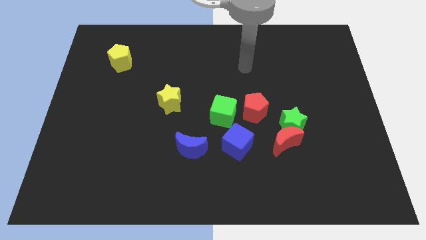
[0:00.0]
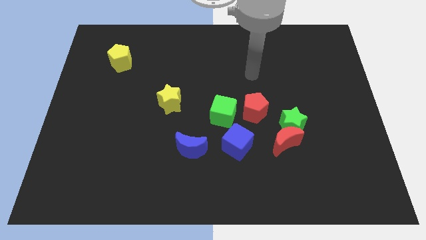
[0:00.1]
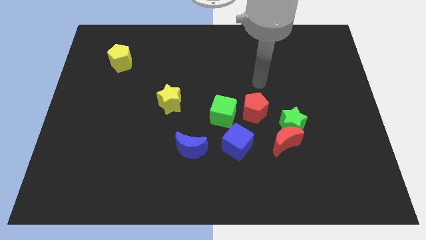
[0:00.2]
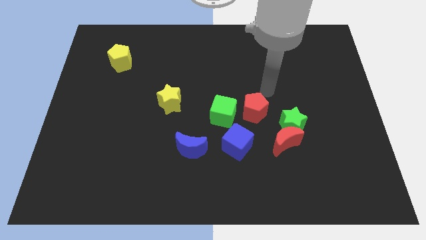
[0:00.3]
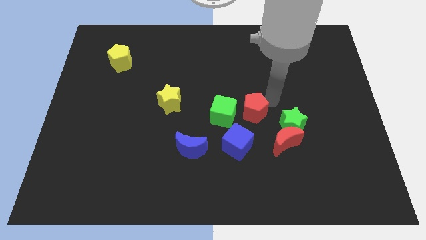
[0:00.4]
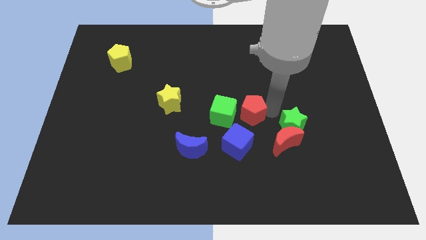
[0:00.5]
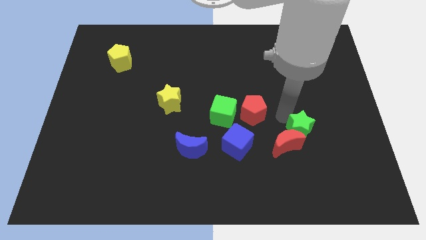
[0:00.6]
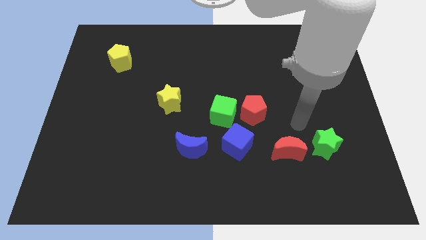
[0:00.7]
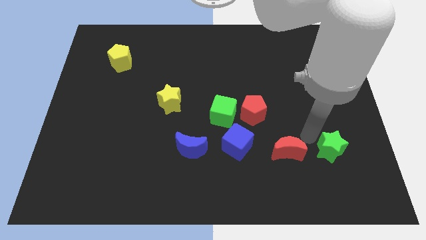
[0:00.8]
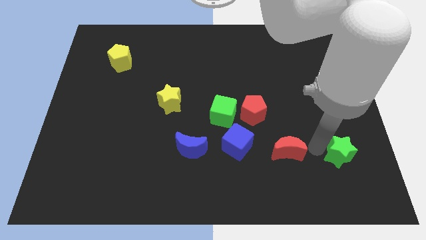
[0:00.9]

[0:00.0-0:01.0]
pull the red moon apart from the green star

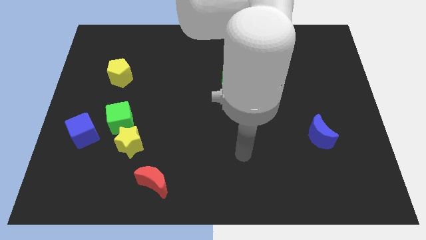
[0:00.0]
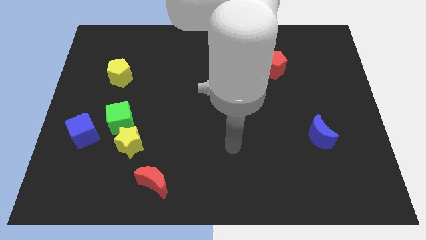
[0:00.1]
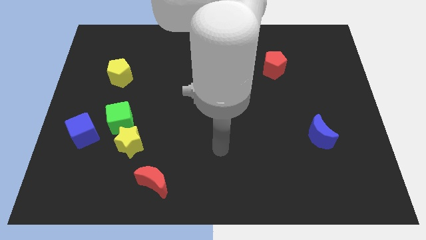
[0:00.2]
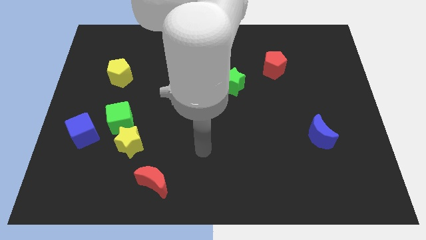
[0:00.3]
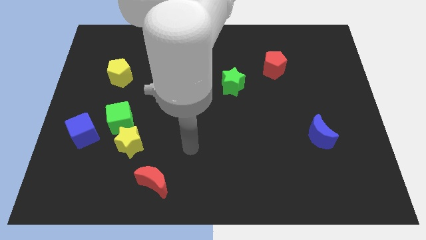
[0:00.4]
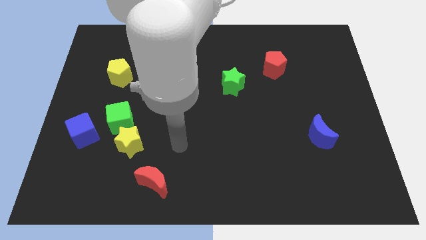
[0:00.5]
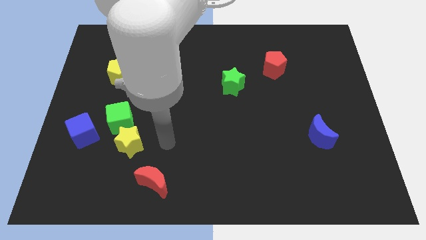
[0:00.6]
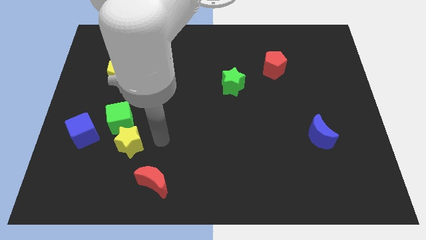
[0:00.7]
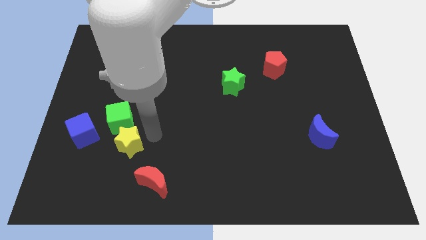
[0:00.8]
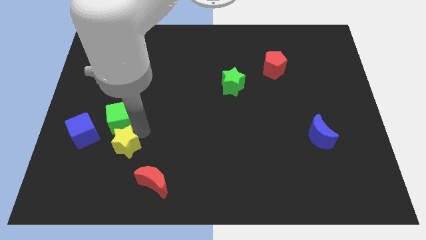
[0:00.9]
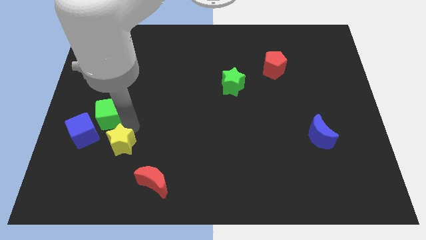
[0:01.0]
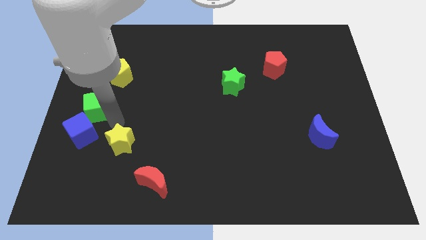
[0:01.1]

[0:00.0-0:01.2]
pull the yellow star apart from the green cube

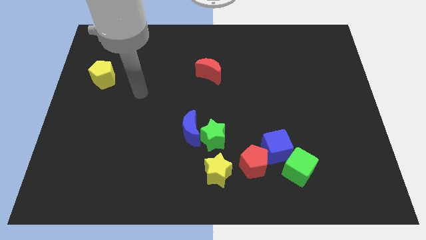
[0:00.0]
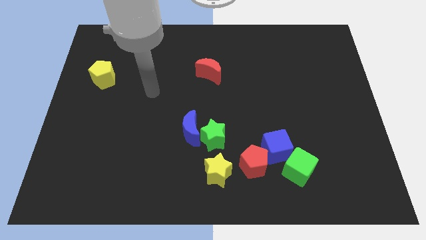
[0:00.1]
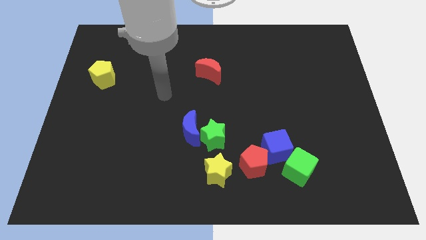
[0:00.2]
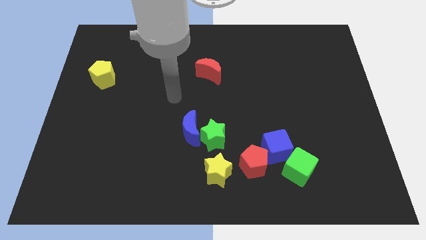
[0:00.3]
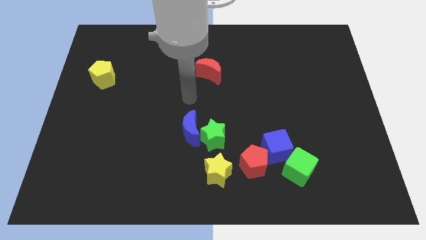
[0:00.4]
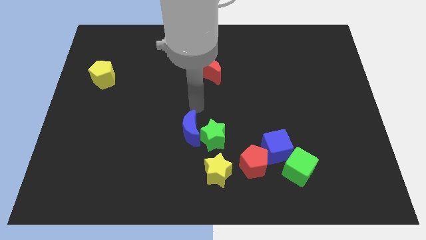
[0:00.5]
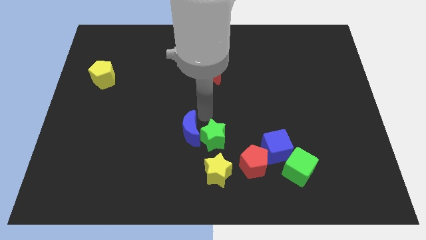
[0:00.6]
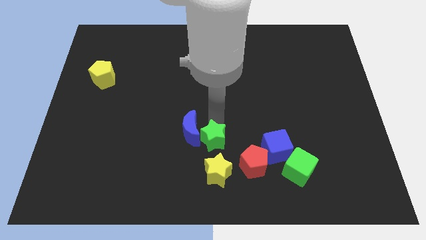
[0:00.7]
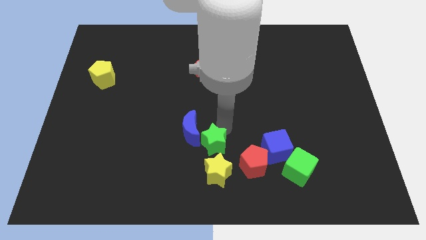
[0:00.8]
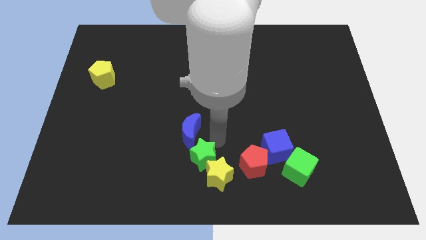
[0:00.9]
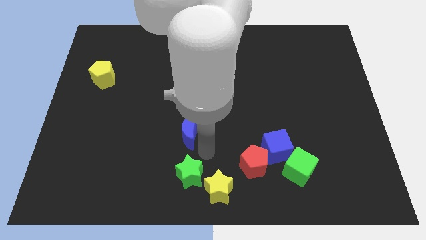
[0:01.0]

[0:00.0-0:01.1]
separate the blue moon from the green star

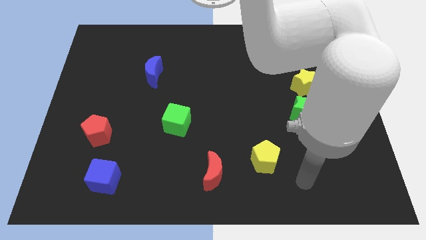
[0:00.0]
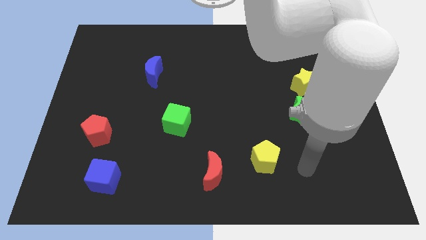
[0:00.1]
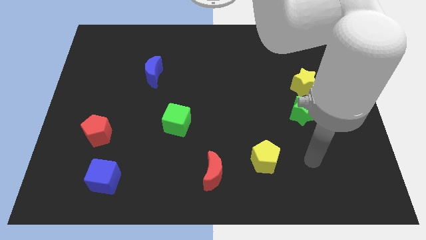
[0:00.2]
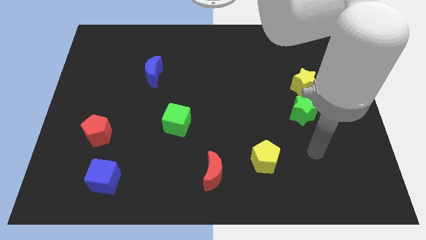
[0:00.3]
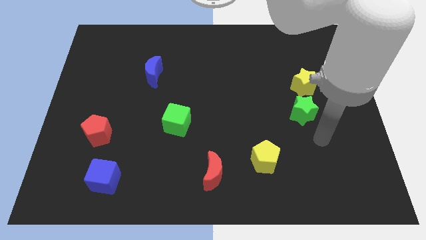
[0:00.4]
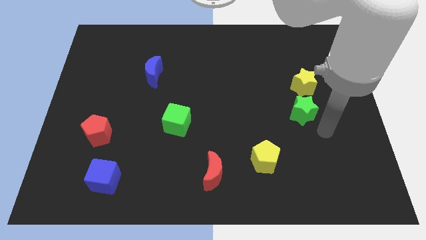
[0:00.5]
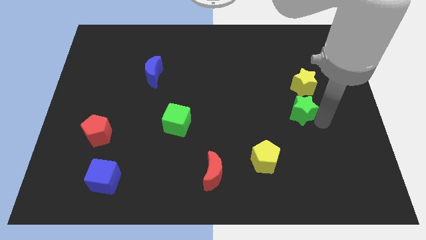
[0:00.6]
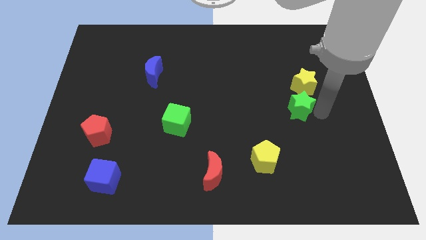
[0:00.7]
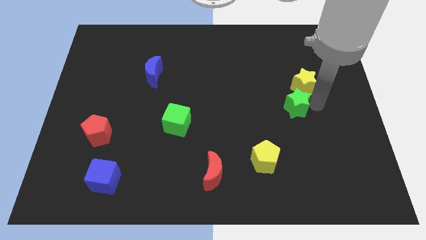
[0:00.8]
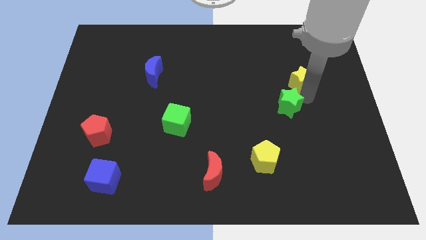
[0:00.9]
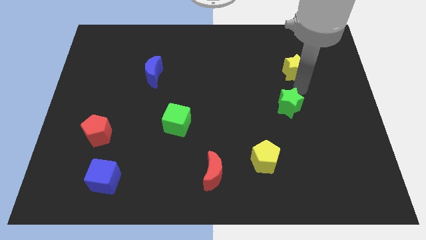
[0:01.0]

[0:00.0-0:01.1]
pull the green star apart from the yellow star

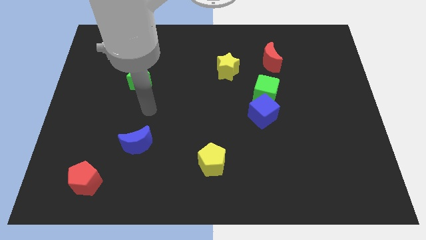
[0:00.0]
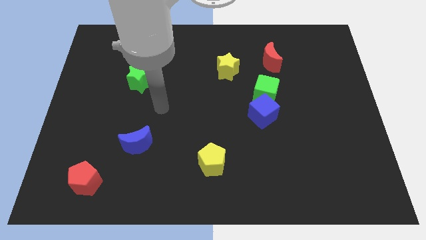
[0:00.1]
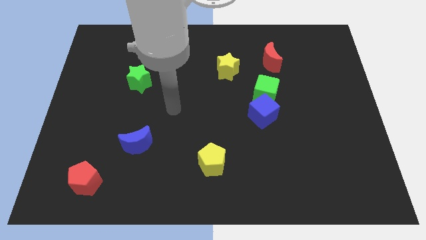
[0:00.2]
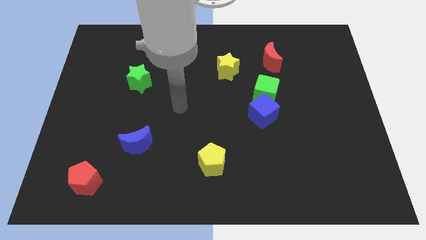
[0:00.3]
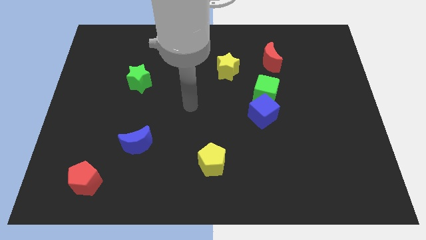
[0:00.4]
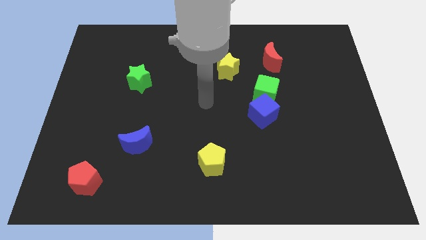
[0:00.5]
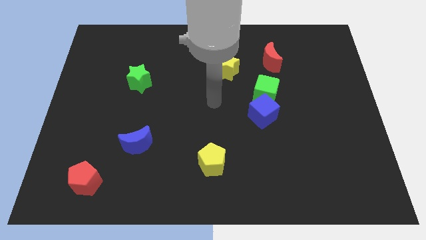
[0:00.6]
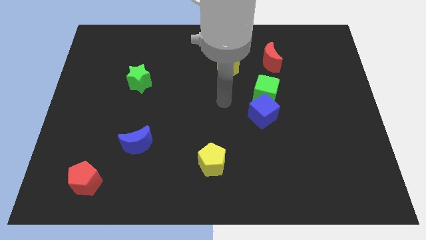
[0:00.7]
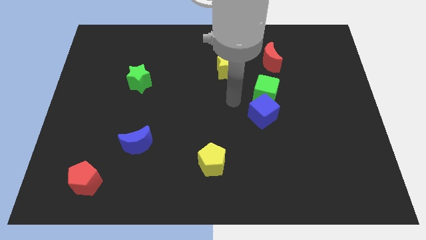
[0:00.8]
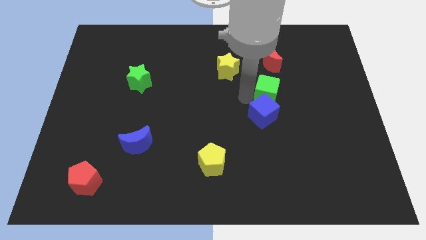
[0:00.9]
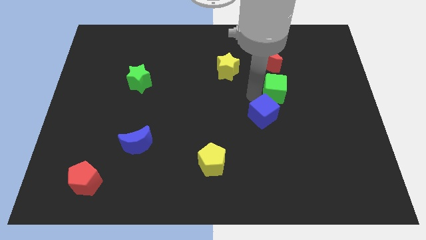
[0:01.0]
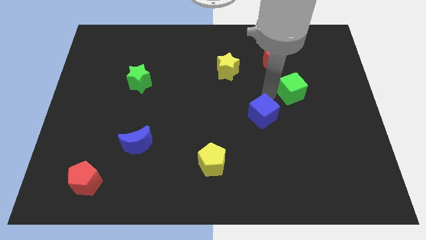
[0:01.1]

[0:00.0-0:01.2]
pull the blue cube apart from the green cube

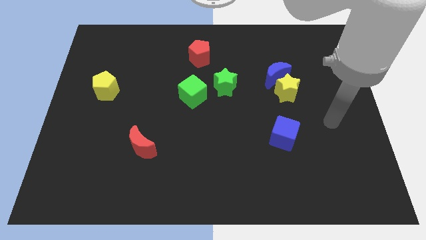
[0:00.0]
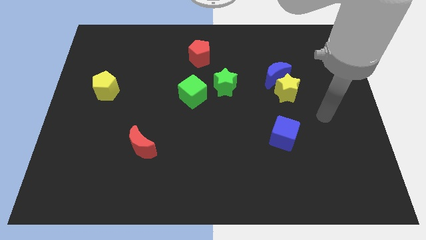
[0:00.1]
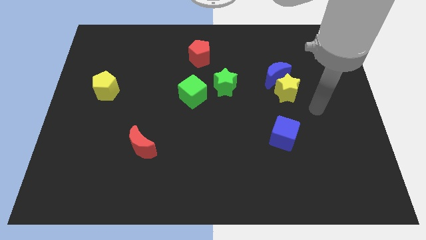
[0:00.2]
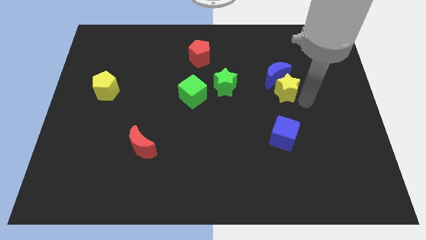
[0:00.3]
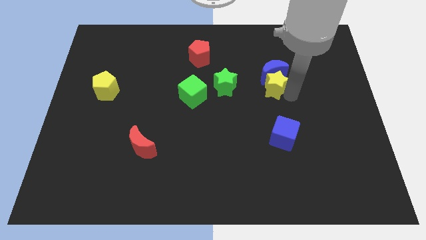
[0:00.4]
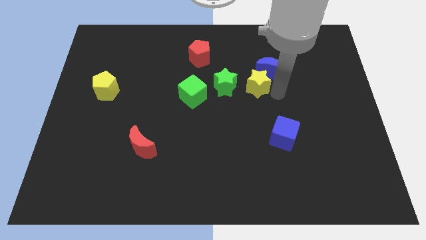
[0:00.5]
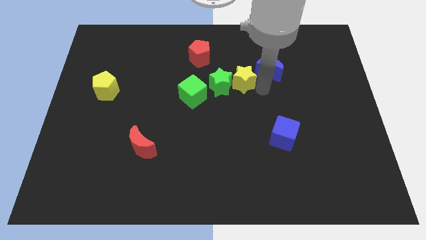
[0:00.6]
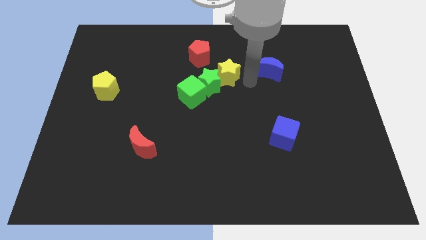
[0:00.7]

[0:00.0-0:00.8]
separate the blue moon from the yellow star

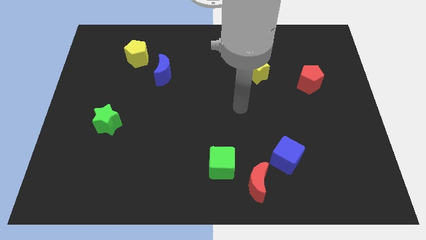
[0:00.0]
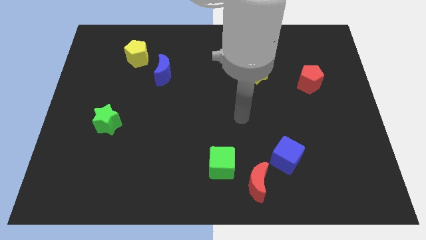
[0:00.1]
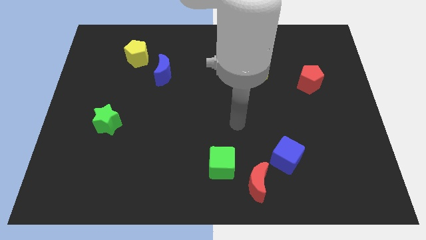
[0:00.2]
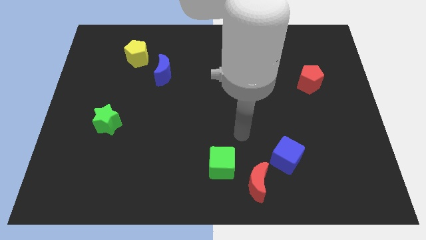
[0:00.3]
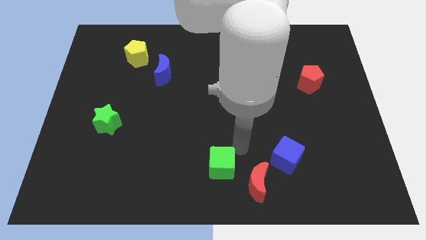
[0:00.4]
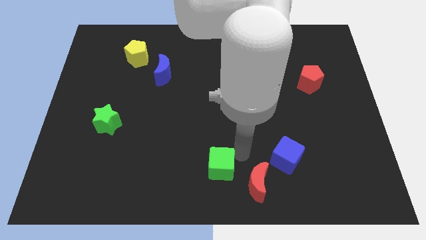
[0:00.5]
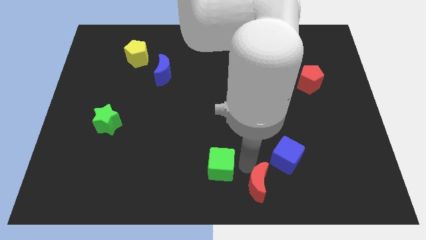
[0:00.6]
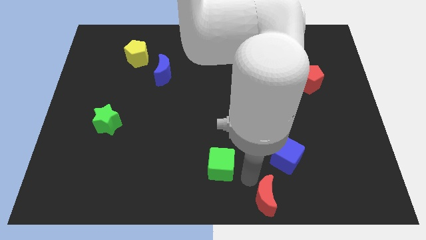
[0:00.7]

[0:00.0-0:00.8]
pull the green cube apart from the red moon

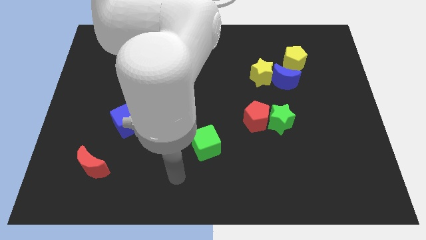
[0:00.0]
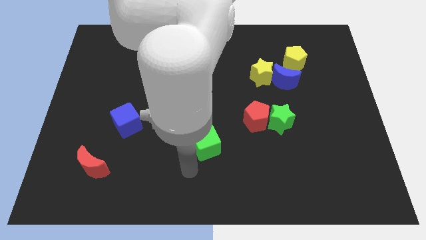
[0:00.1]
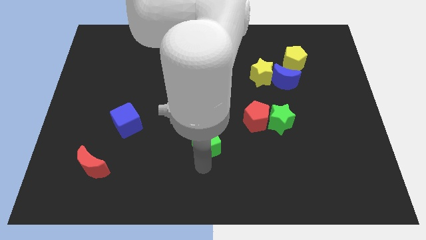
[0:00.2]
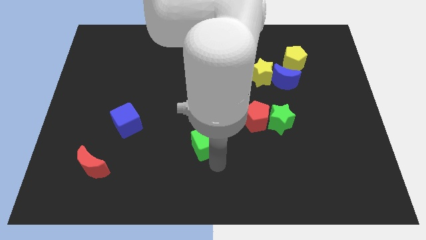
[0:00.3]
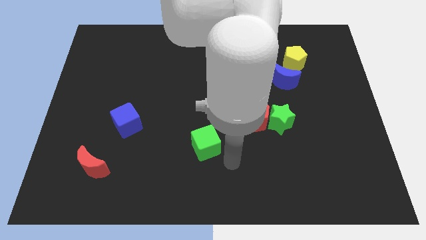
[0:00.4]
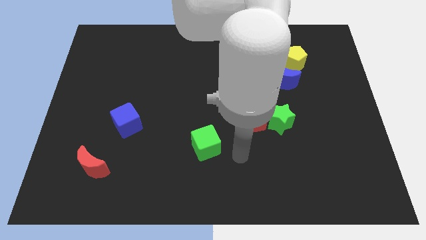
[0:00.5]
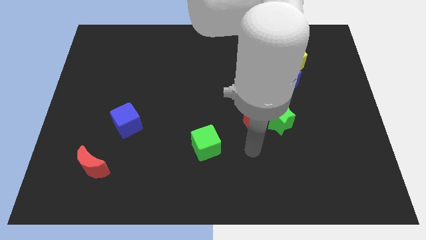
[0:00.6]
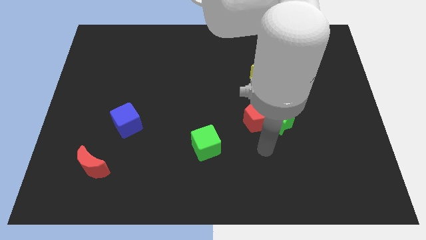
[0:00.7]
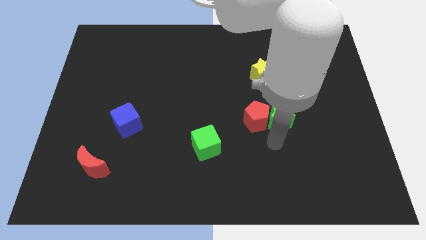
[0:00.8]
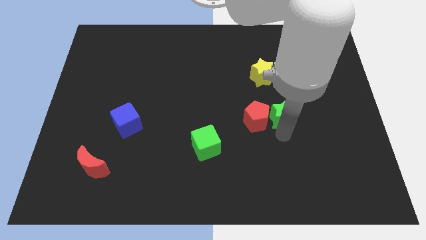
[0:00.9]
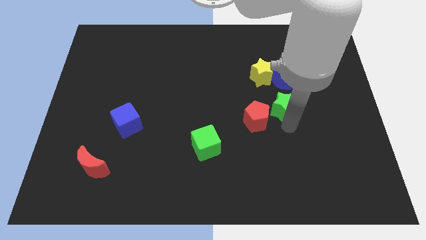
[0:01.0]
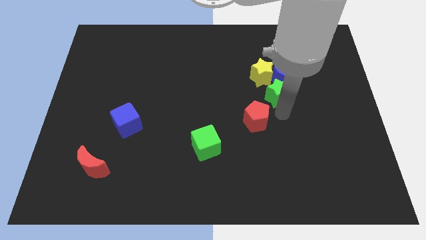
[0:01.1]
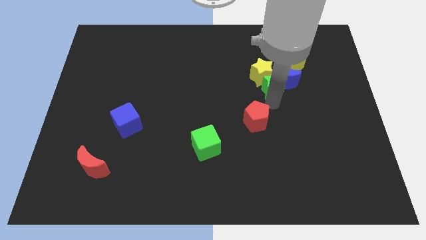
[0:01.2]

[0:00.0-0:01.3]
separate the red pentagon from the green star

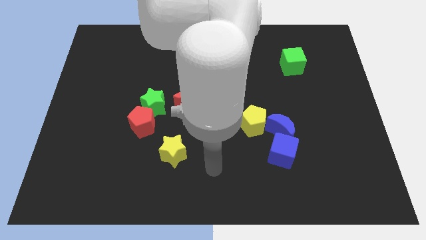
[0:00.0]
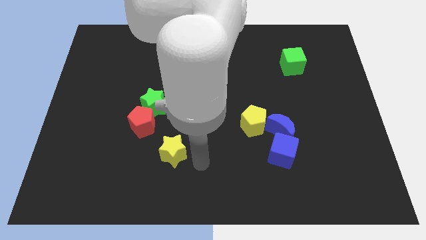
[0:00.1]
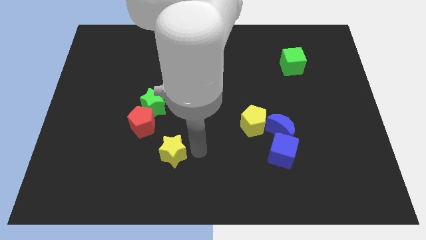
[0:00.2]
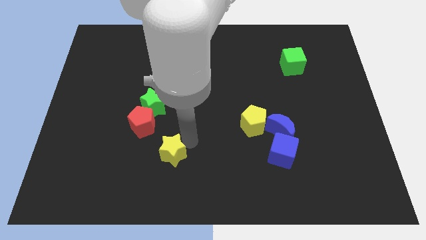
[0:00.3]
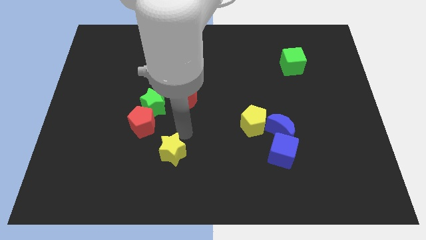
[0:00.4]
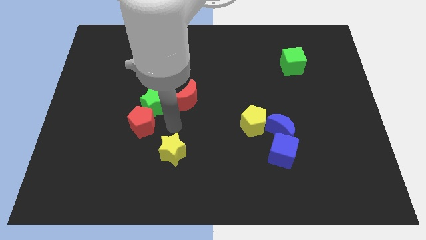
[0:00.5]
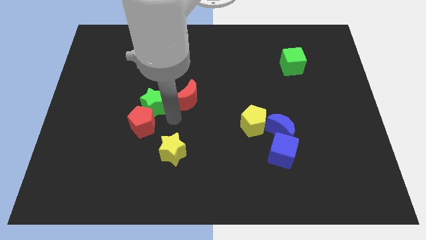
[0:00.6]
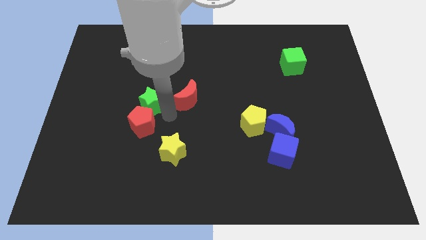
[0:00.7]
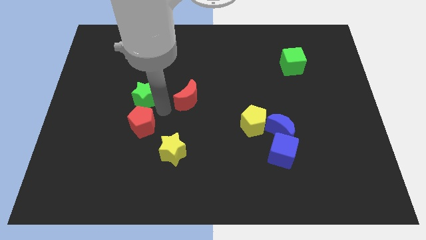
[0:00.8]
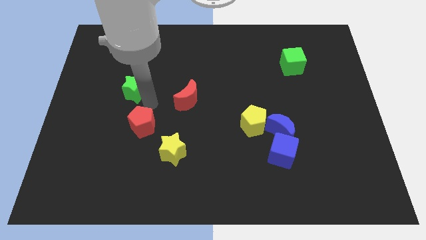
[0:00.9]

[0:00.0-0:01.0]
pull the red pentagon apart from the green star
